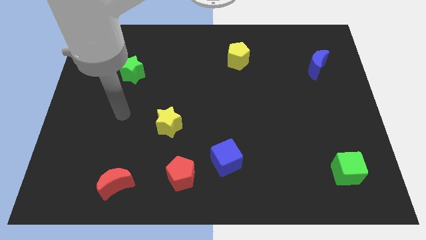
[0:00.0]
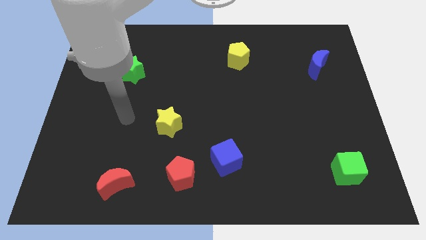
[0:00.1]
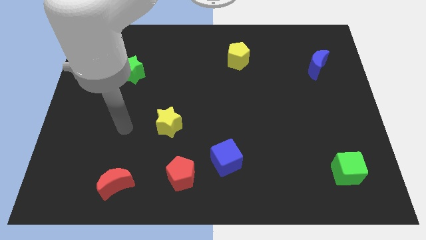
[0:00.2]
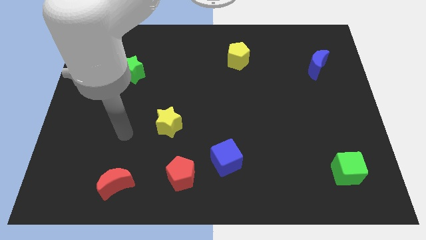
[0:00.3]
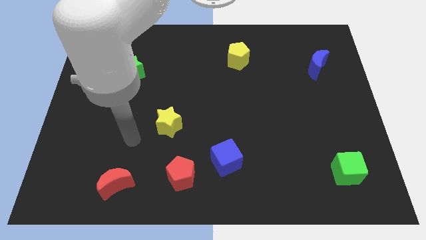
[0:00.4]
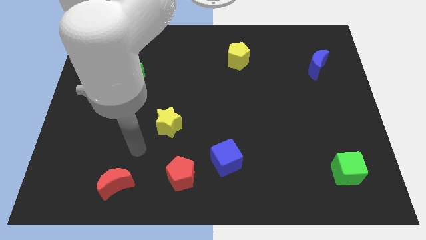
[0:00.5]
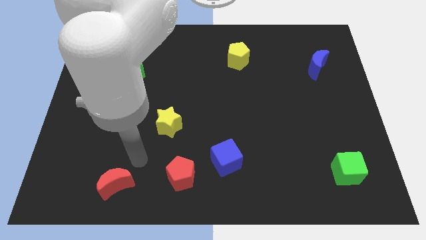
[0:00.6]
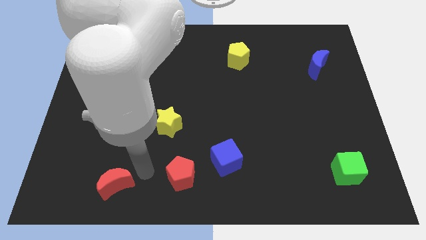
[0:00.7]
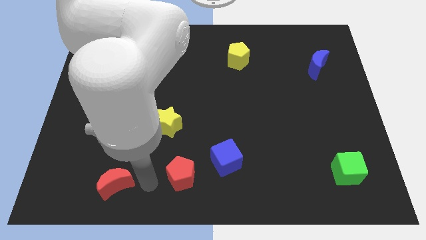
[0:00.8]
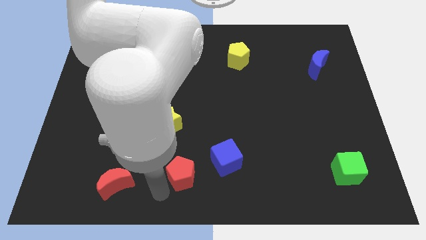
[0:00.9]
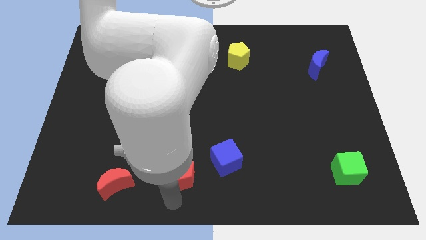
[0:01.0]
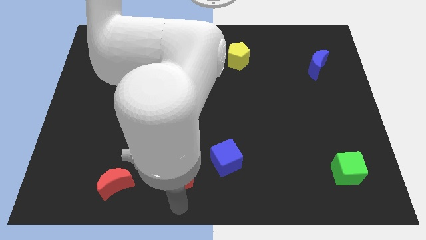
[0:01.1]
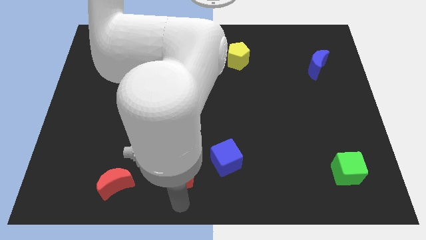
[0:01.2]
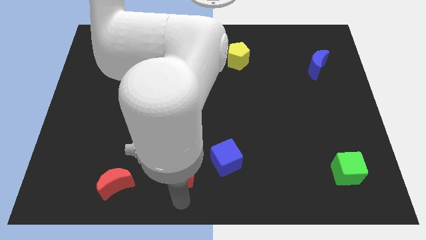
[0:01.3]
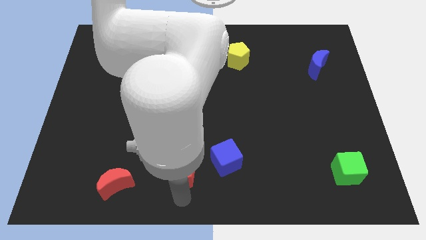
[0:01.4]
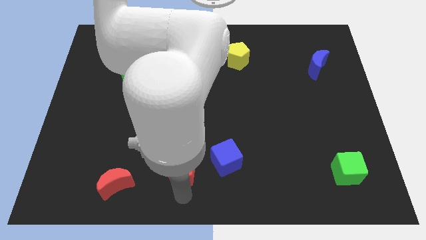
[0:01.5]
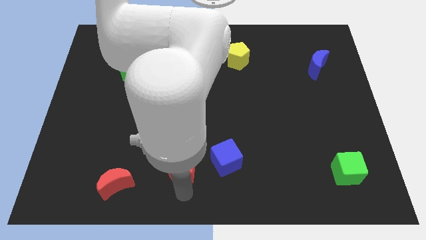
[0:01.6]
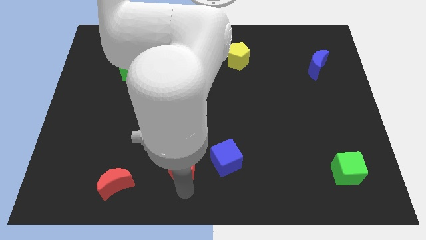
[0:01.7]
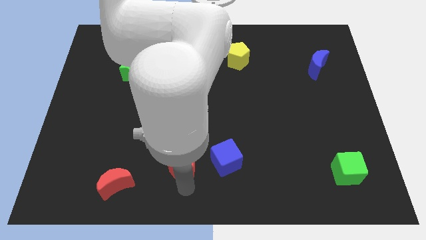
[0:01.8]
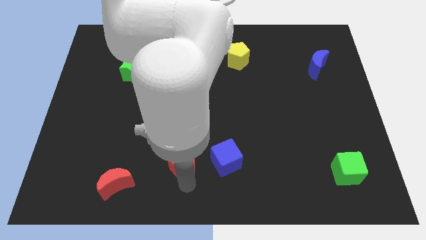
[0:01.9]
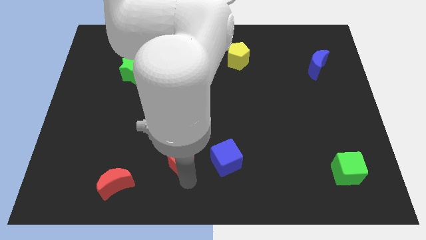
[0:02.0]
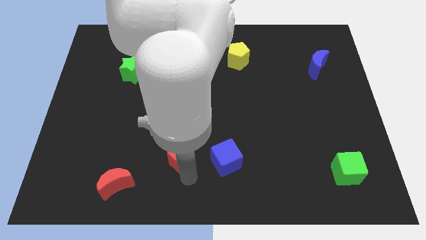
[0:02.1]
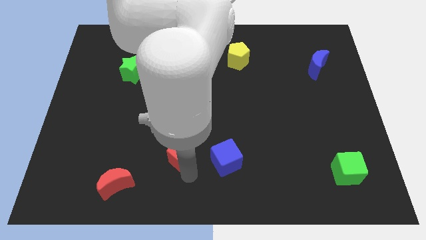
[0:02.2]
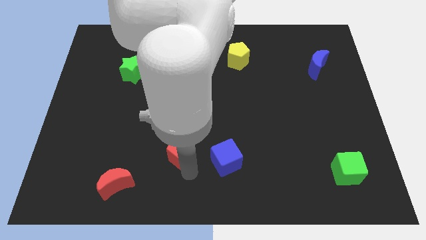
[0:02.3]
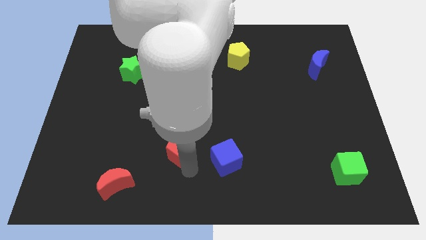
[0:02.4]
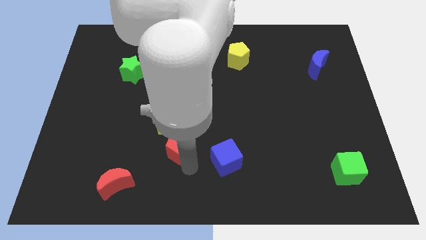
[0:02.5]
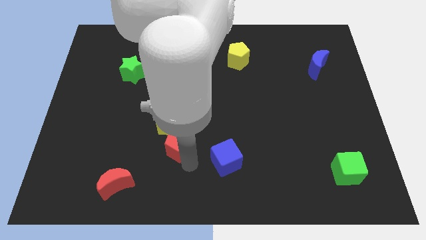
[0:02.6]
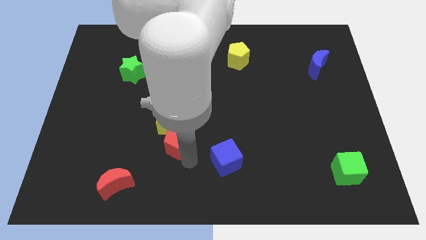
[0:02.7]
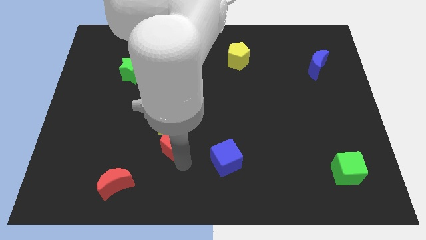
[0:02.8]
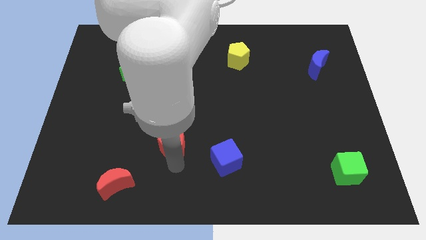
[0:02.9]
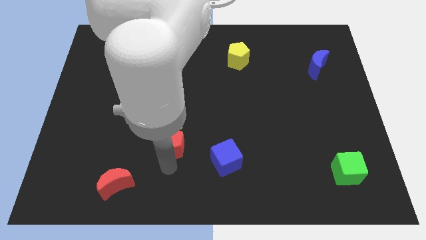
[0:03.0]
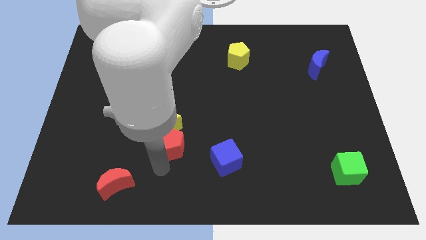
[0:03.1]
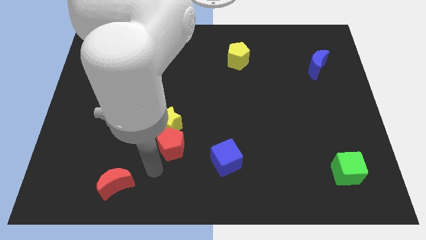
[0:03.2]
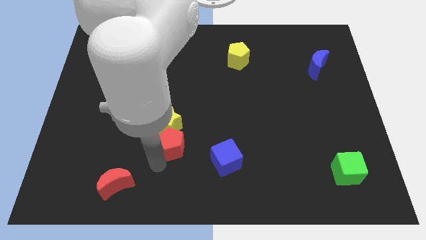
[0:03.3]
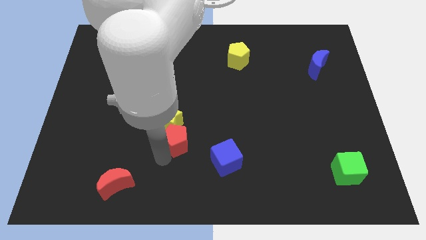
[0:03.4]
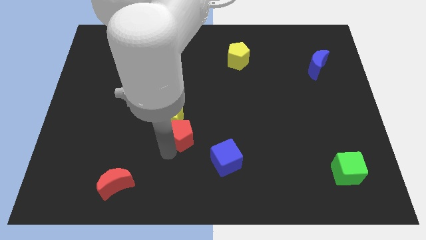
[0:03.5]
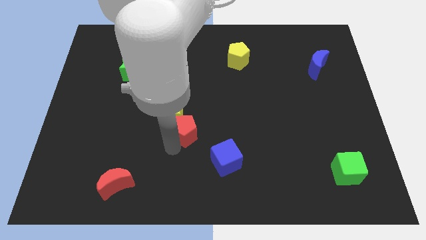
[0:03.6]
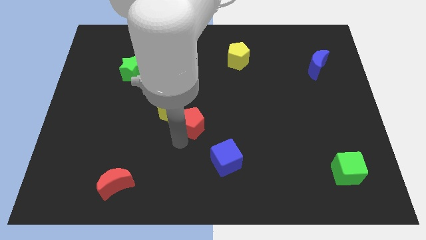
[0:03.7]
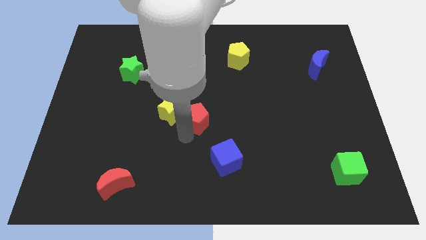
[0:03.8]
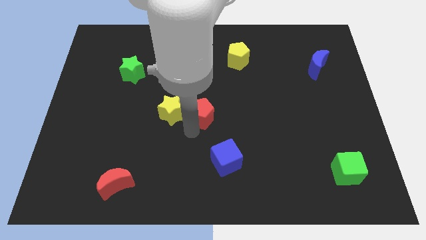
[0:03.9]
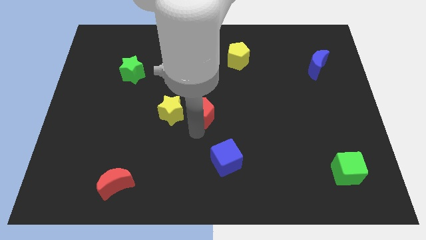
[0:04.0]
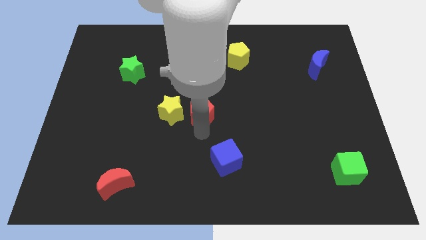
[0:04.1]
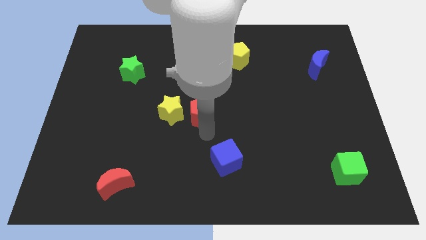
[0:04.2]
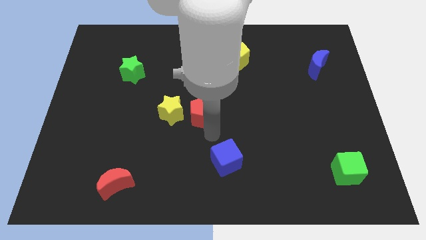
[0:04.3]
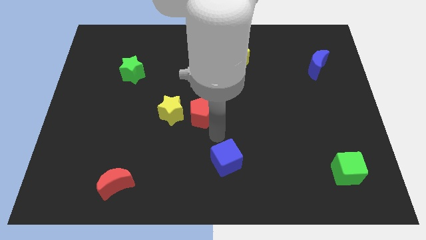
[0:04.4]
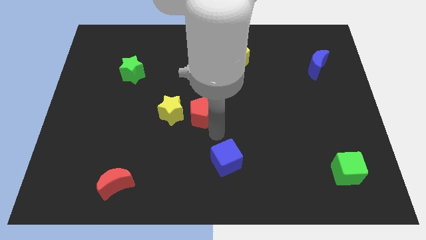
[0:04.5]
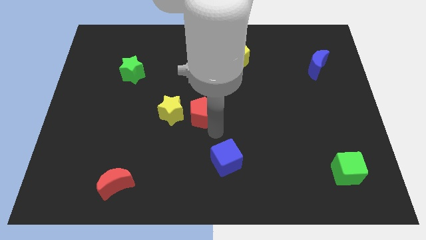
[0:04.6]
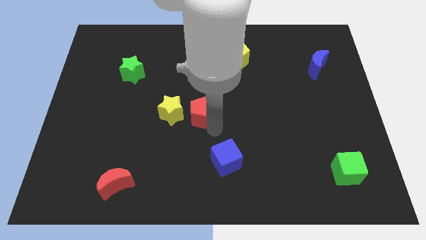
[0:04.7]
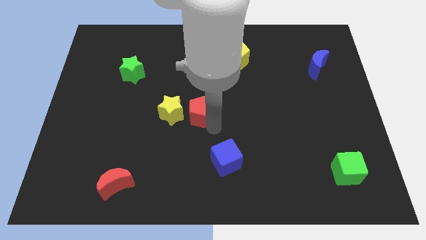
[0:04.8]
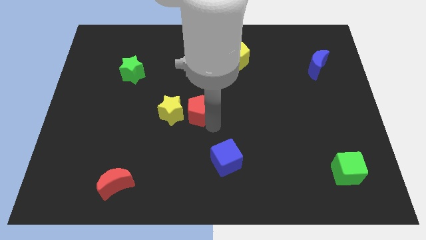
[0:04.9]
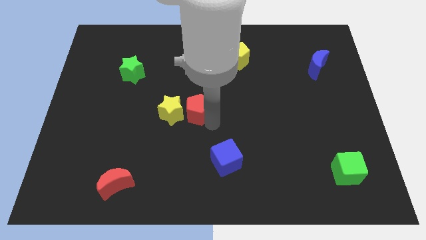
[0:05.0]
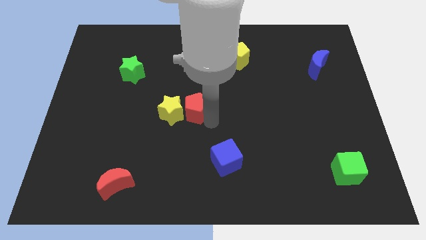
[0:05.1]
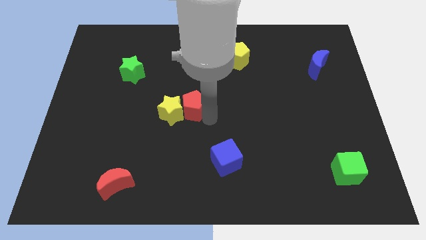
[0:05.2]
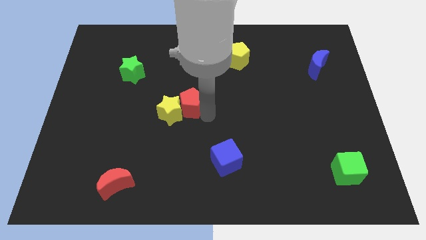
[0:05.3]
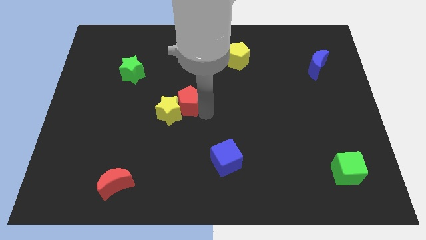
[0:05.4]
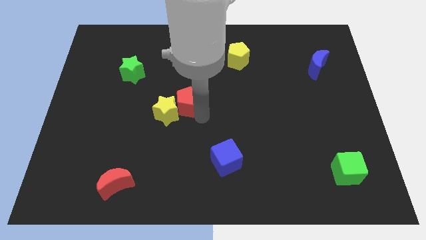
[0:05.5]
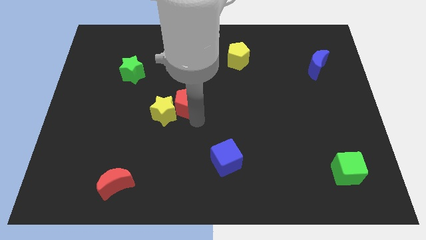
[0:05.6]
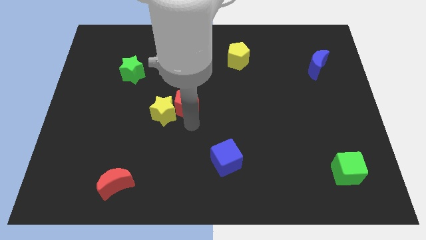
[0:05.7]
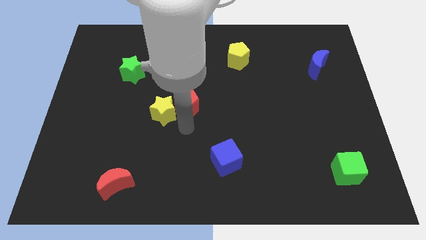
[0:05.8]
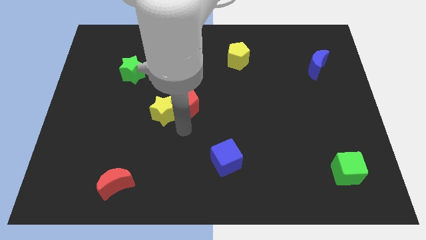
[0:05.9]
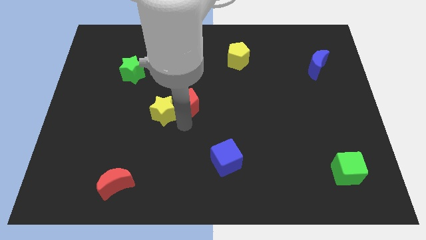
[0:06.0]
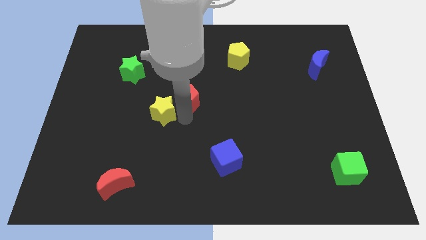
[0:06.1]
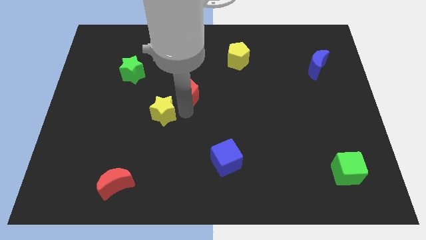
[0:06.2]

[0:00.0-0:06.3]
push the red pentagon up

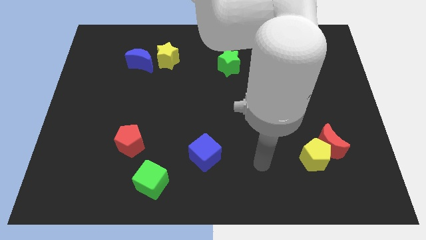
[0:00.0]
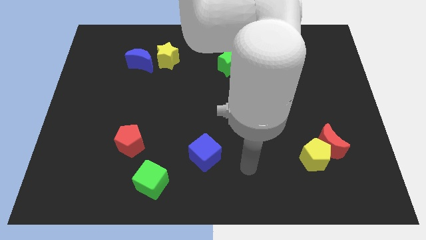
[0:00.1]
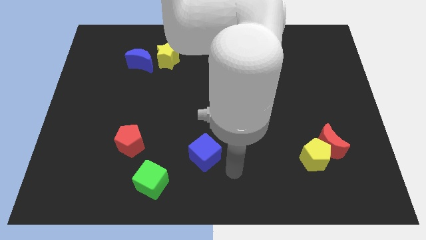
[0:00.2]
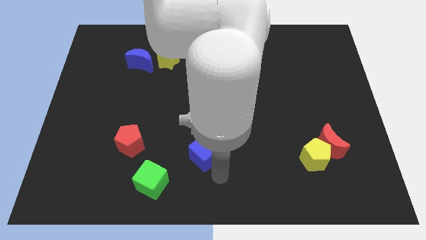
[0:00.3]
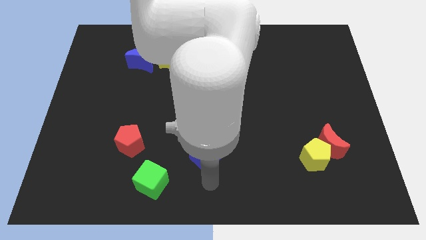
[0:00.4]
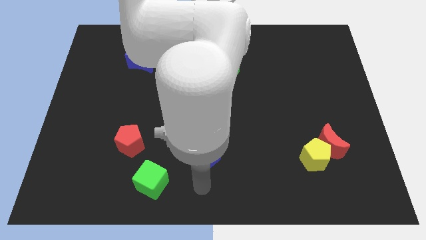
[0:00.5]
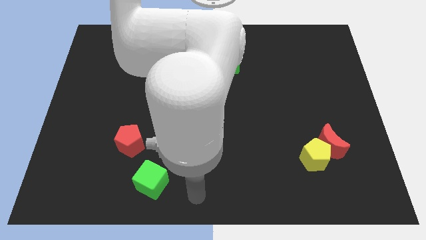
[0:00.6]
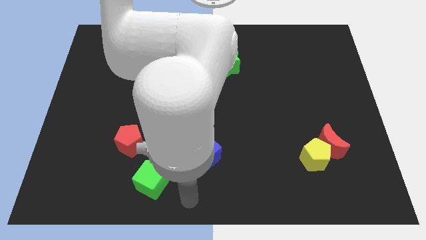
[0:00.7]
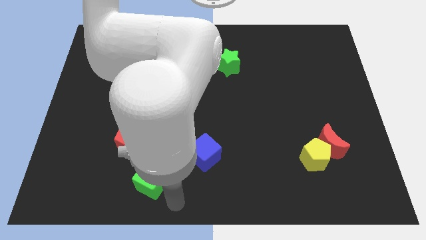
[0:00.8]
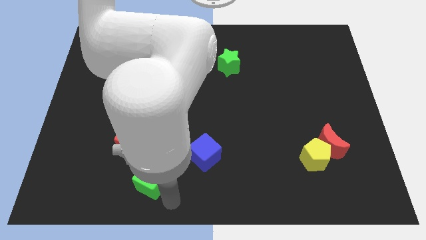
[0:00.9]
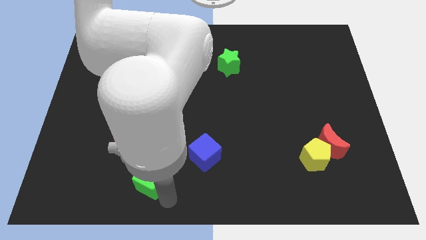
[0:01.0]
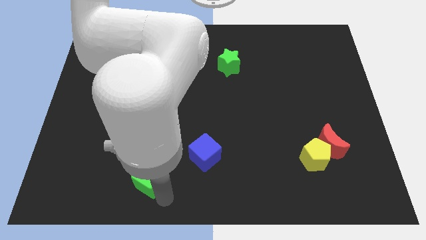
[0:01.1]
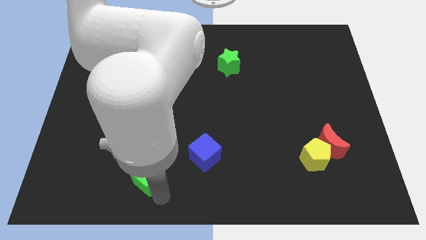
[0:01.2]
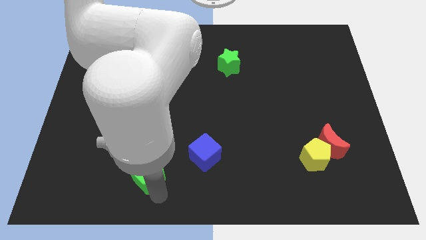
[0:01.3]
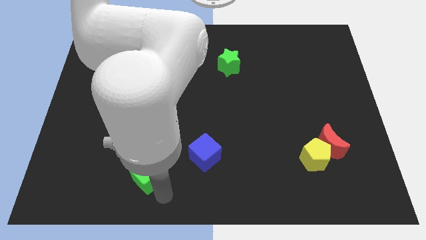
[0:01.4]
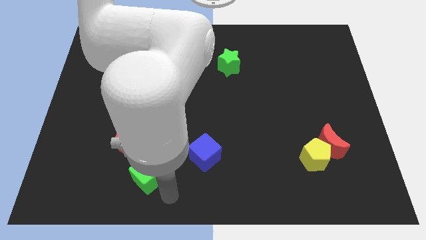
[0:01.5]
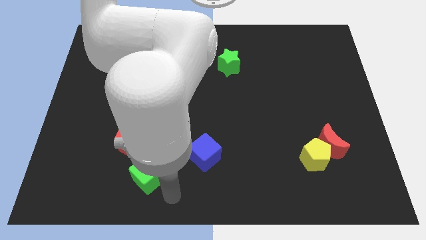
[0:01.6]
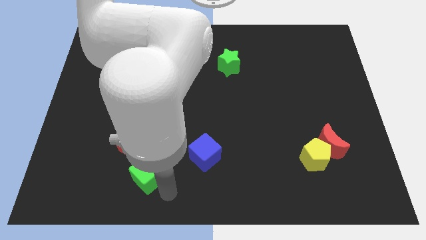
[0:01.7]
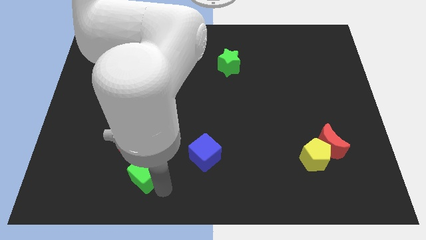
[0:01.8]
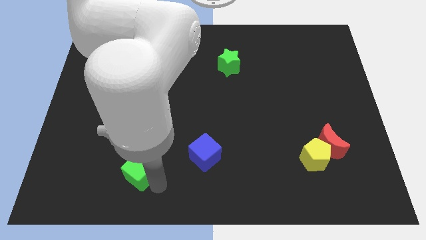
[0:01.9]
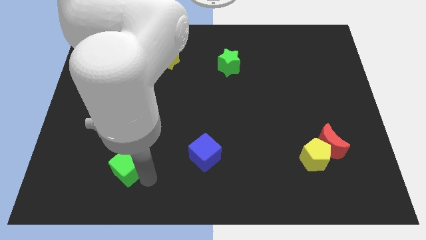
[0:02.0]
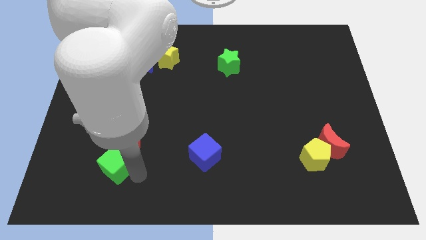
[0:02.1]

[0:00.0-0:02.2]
slightly move the green cube up and then left
